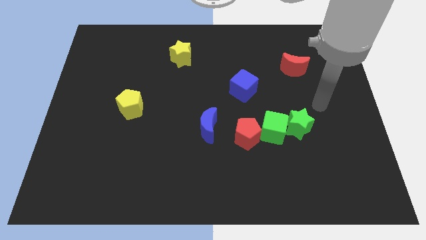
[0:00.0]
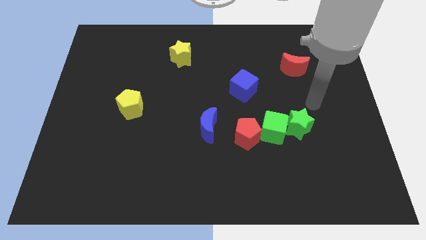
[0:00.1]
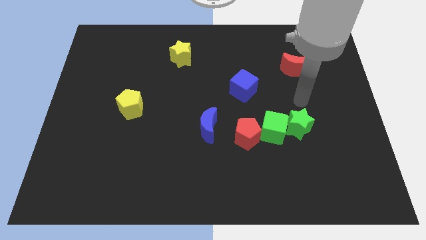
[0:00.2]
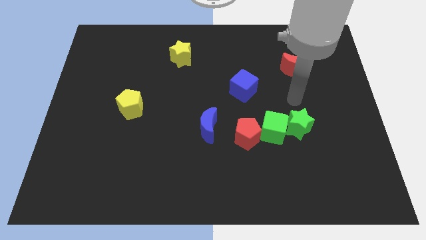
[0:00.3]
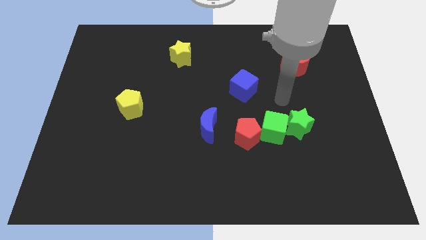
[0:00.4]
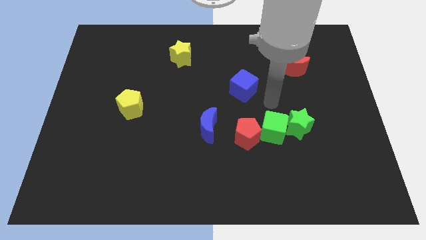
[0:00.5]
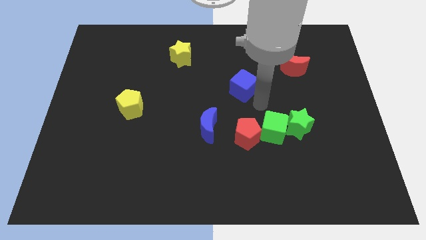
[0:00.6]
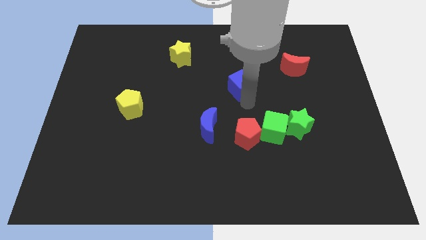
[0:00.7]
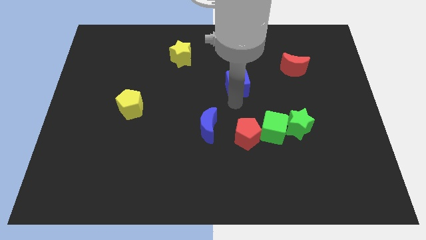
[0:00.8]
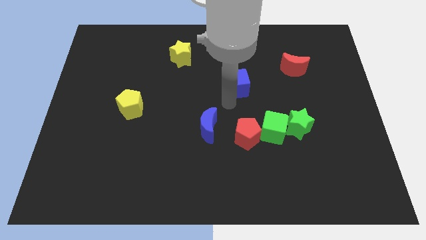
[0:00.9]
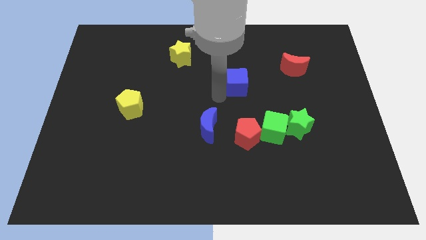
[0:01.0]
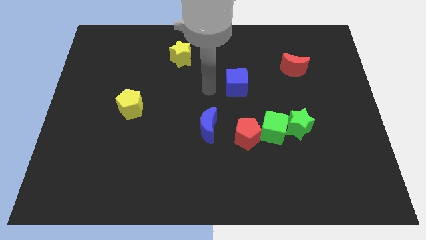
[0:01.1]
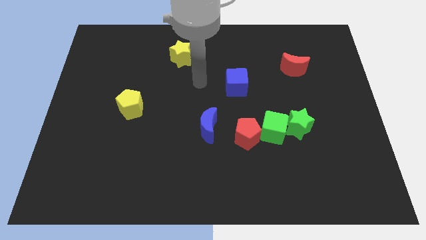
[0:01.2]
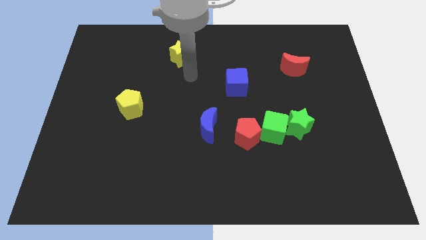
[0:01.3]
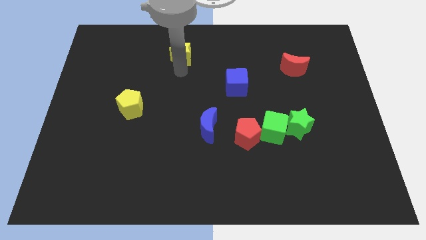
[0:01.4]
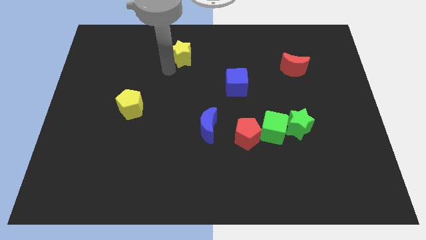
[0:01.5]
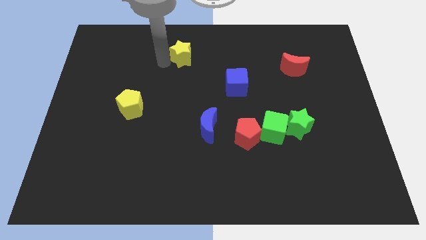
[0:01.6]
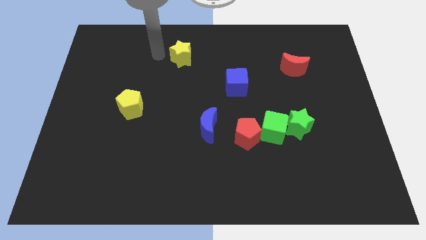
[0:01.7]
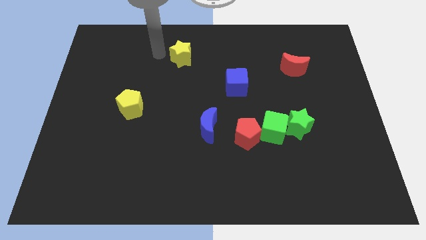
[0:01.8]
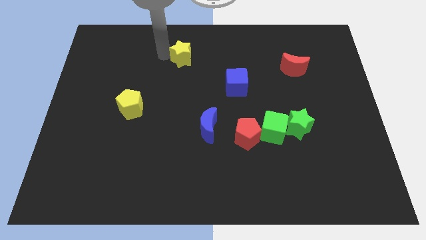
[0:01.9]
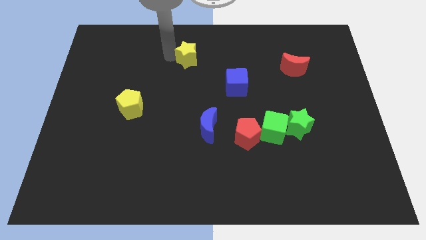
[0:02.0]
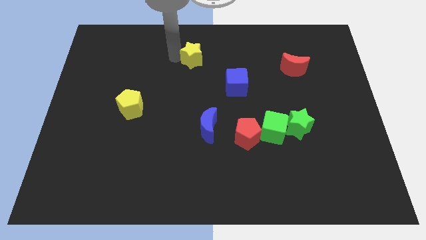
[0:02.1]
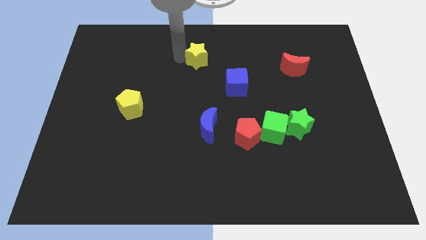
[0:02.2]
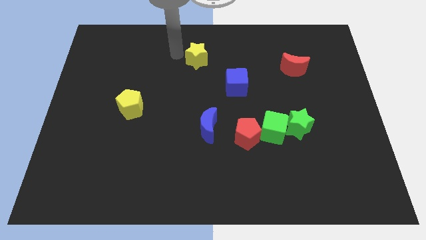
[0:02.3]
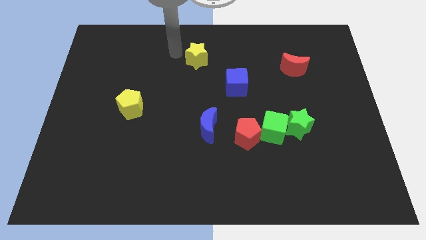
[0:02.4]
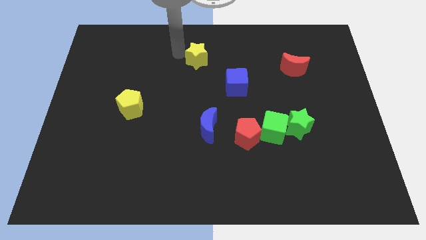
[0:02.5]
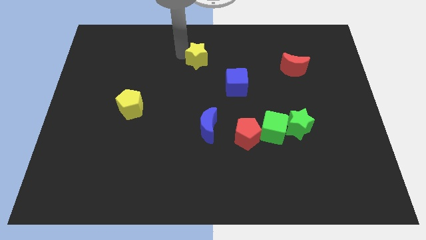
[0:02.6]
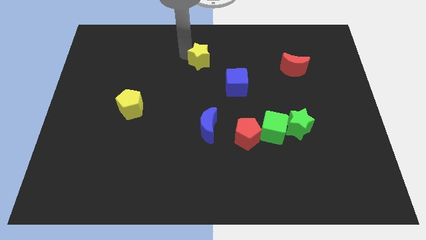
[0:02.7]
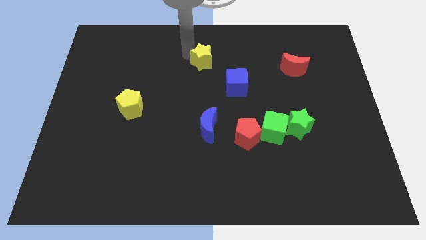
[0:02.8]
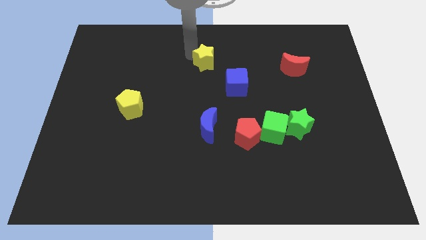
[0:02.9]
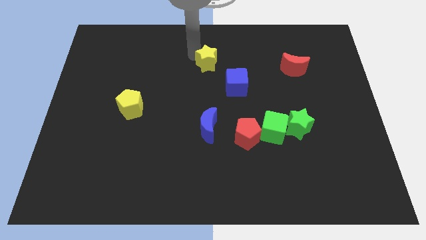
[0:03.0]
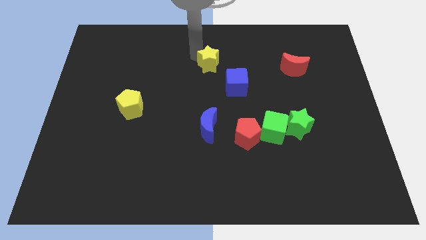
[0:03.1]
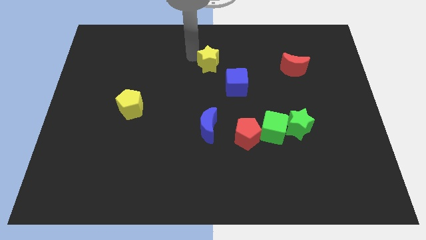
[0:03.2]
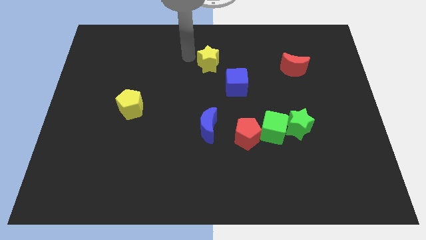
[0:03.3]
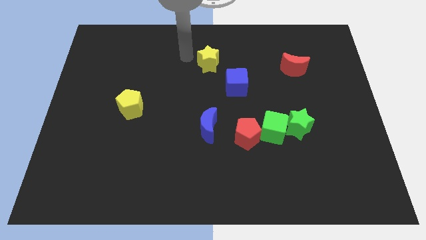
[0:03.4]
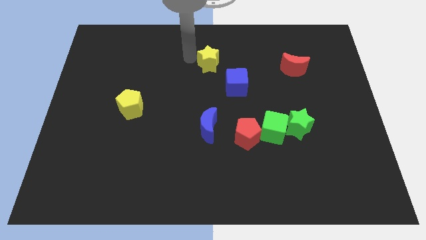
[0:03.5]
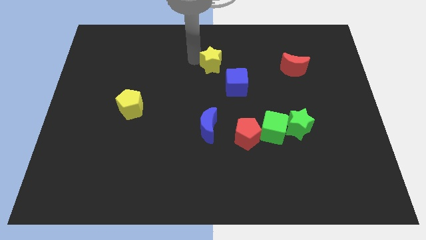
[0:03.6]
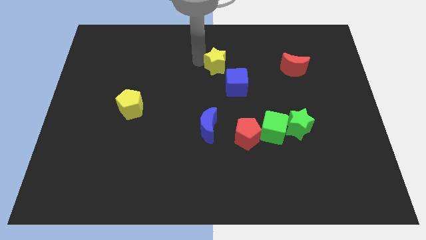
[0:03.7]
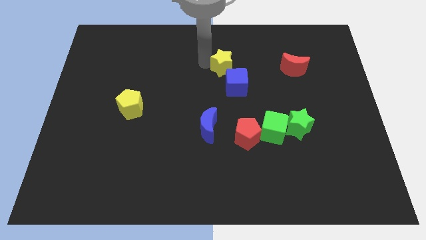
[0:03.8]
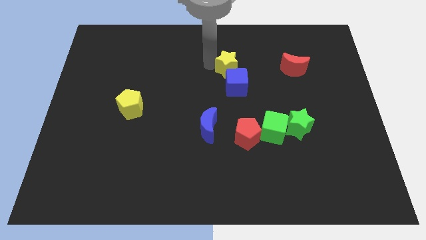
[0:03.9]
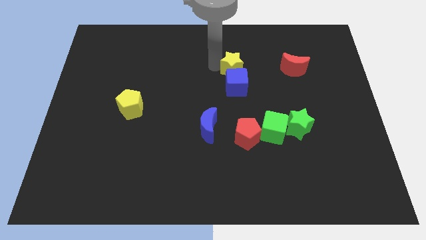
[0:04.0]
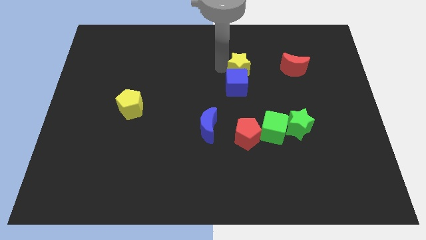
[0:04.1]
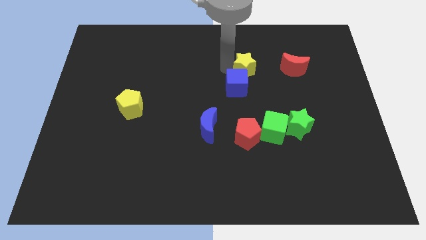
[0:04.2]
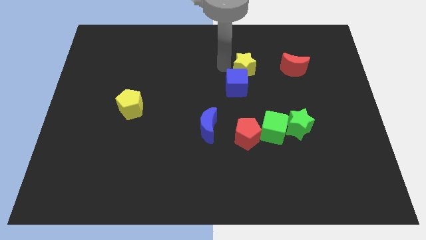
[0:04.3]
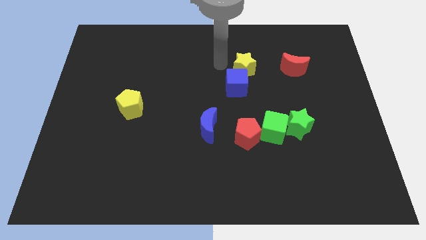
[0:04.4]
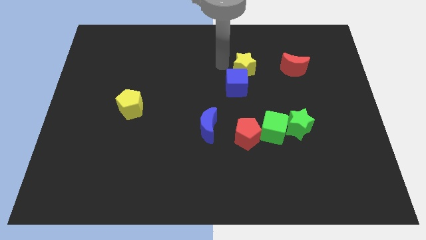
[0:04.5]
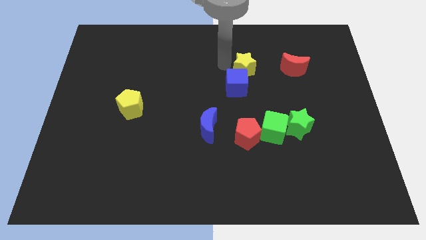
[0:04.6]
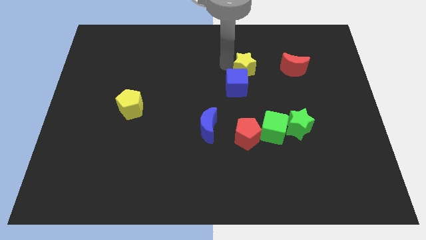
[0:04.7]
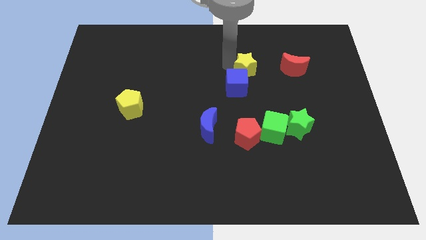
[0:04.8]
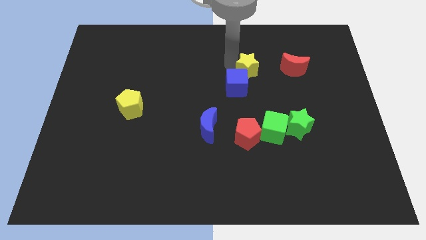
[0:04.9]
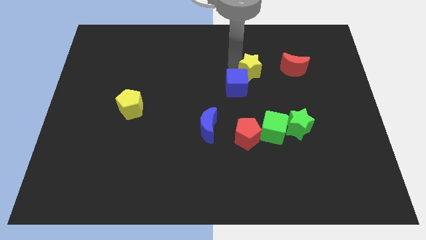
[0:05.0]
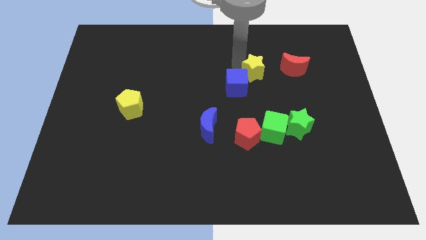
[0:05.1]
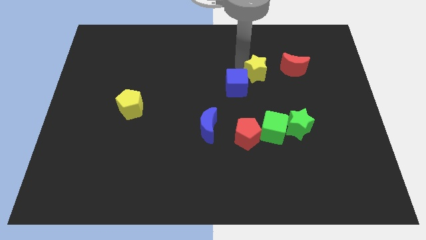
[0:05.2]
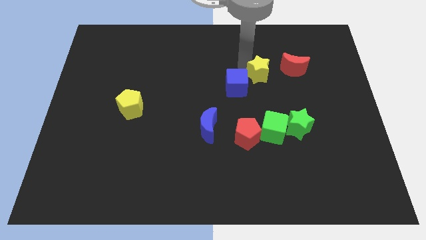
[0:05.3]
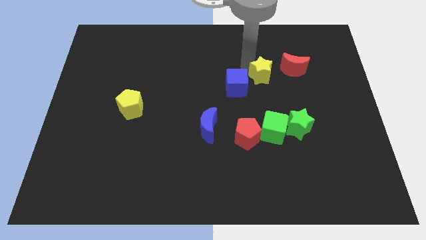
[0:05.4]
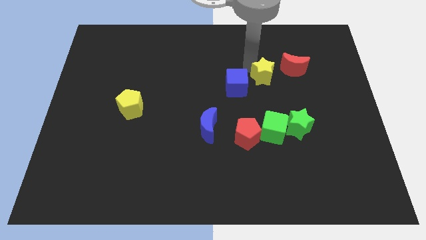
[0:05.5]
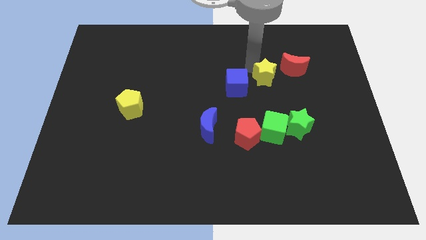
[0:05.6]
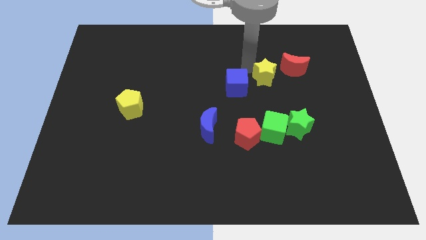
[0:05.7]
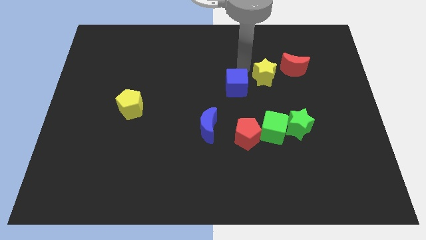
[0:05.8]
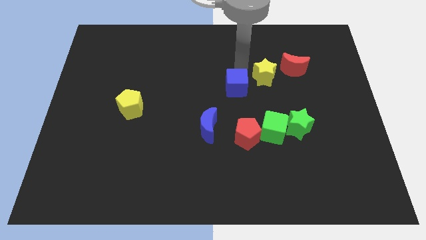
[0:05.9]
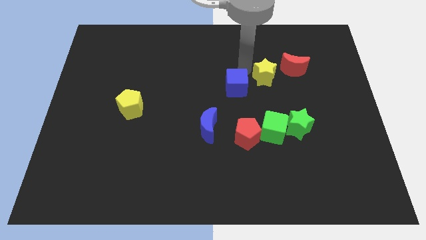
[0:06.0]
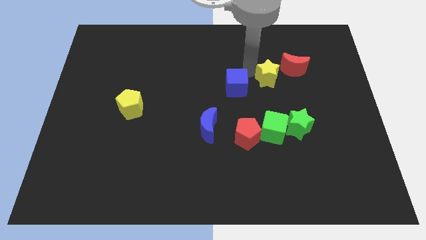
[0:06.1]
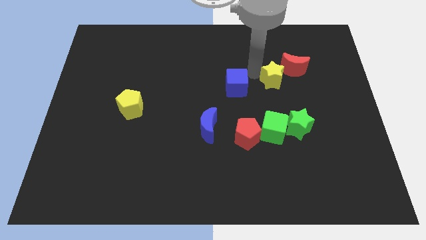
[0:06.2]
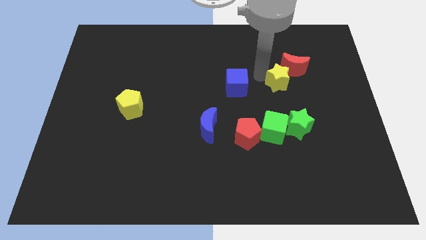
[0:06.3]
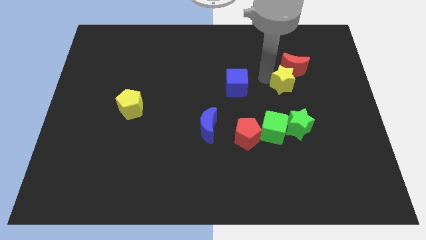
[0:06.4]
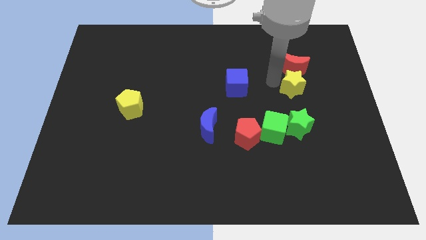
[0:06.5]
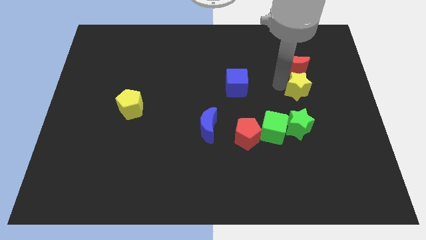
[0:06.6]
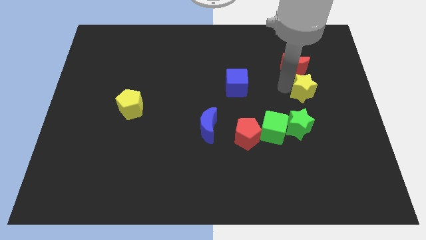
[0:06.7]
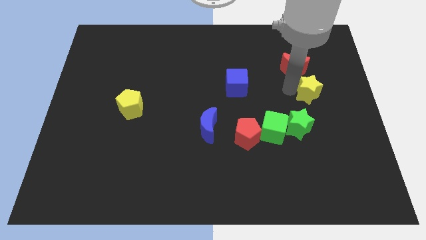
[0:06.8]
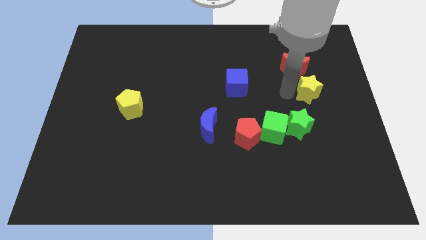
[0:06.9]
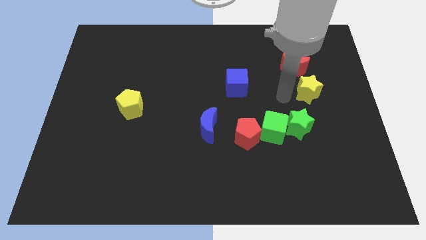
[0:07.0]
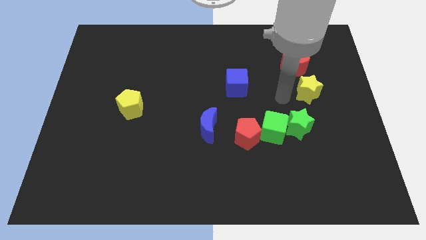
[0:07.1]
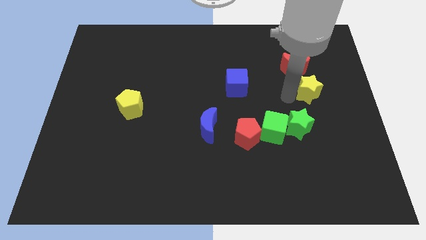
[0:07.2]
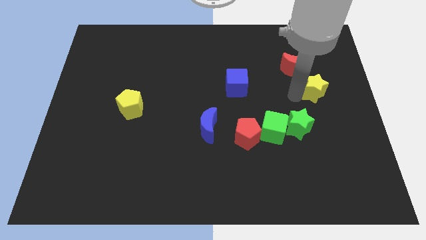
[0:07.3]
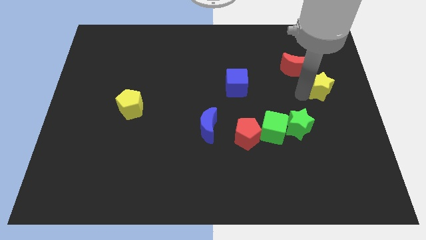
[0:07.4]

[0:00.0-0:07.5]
put the yellow star to the center right
